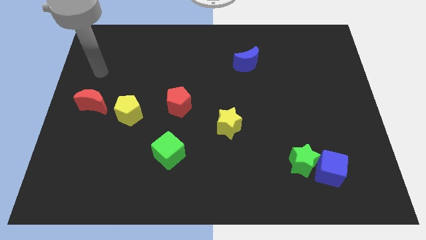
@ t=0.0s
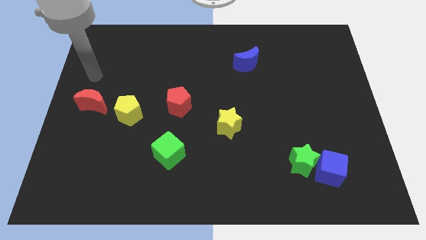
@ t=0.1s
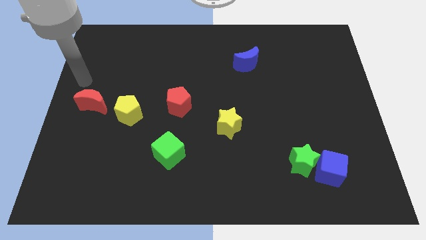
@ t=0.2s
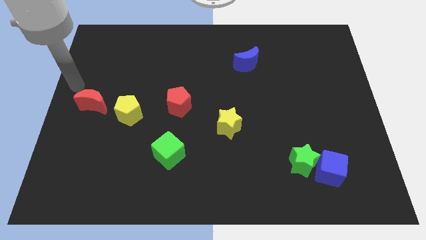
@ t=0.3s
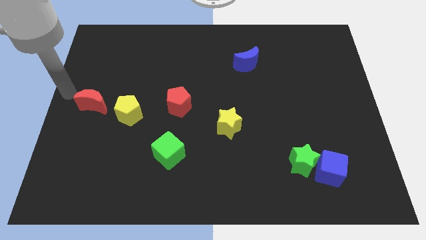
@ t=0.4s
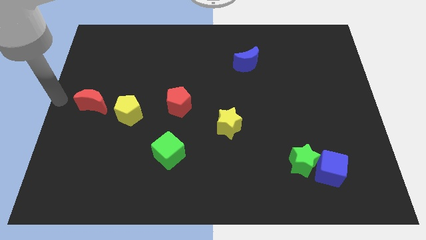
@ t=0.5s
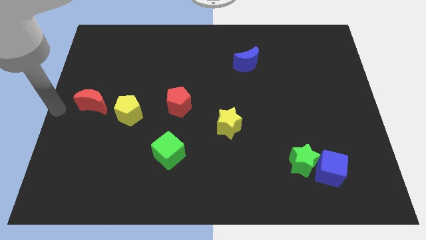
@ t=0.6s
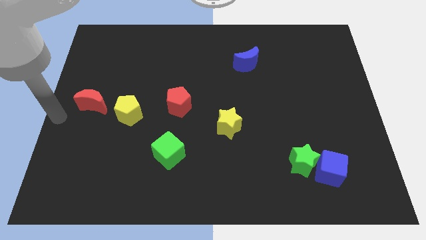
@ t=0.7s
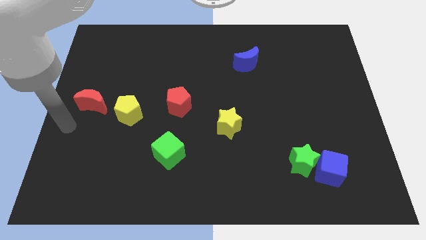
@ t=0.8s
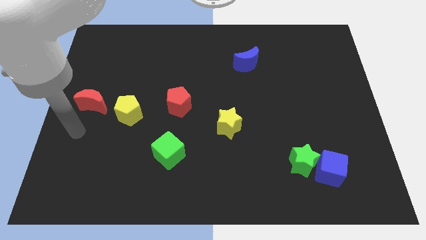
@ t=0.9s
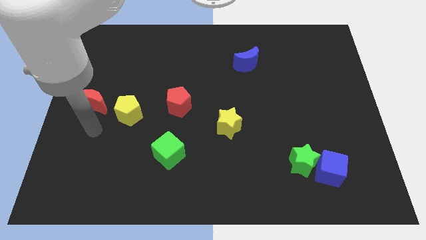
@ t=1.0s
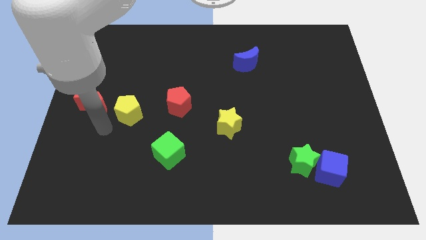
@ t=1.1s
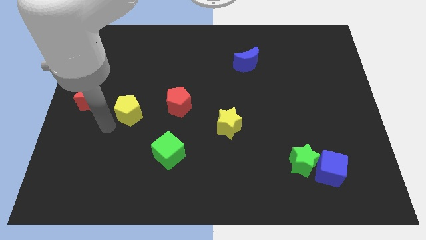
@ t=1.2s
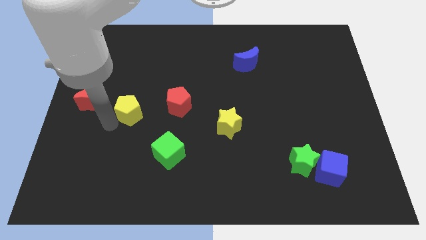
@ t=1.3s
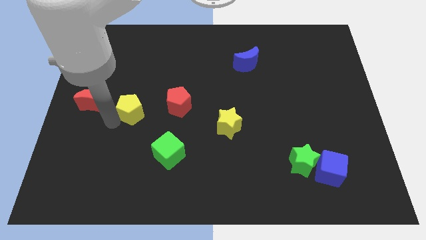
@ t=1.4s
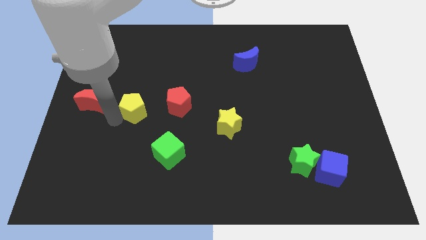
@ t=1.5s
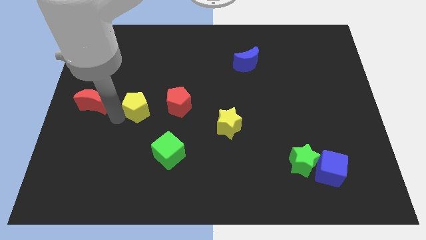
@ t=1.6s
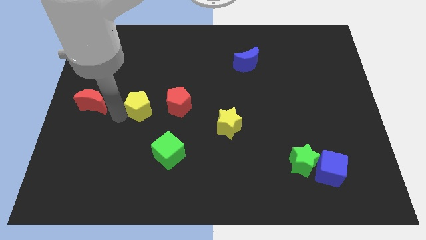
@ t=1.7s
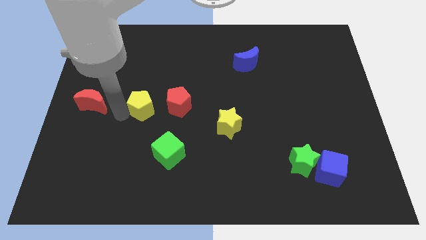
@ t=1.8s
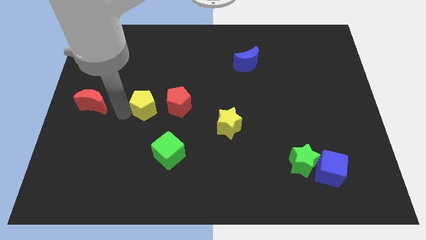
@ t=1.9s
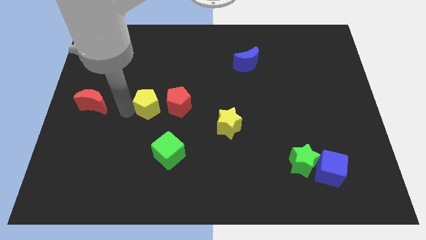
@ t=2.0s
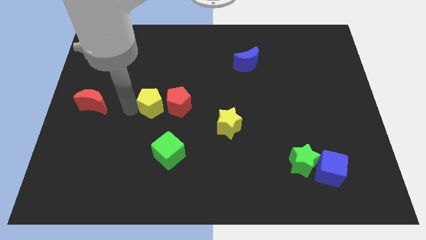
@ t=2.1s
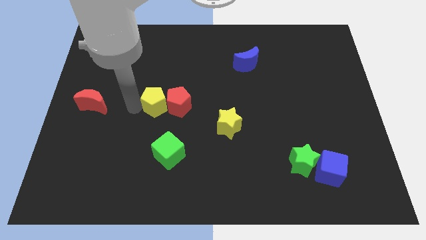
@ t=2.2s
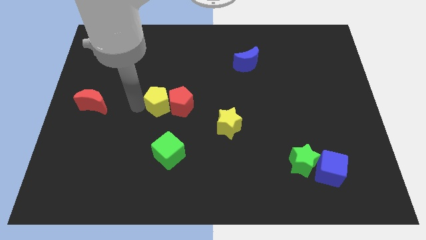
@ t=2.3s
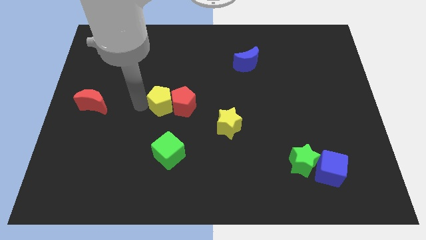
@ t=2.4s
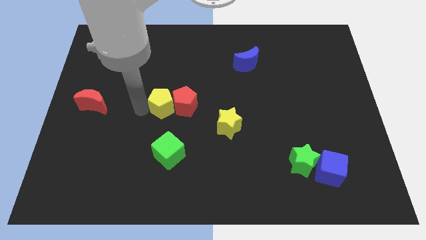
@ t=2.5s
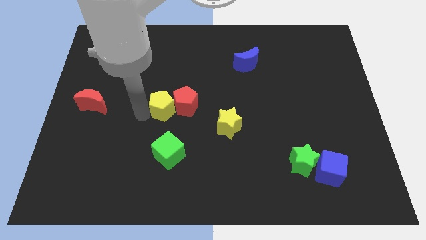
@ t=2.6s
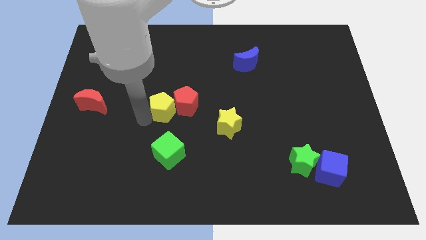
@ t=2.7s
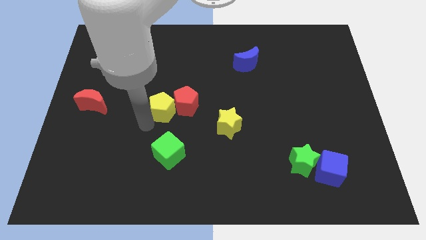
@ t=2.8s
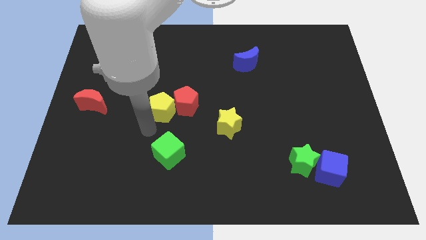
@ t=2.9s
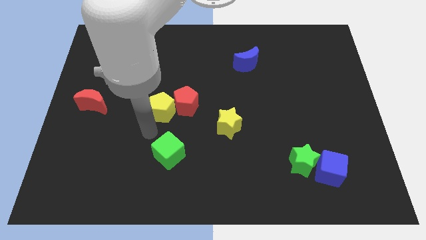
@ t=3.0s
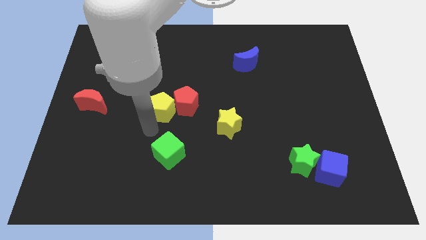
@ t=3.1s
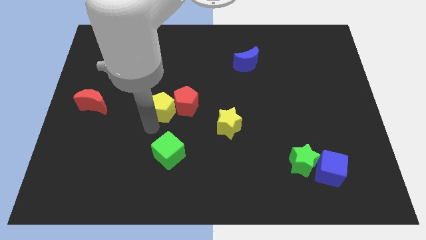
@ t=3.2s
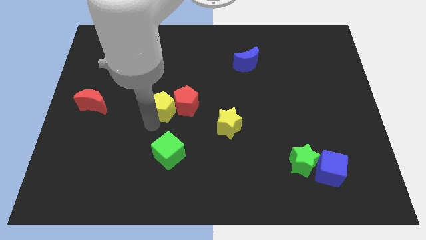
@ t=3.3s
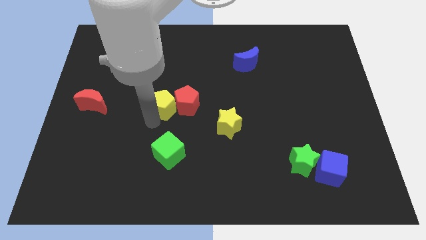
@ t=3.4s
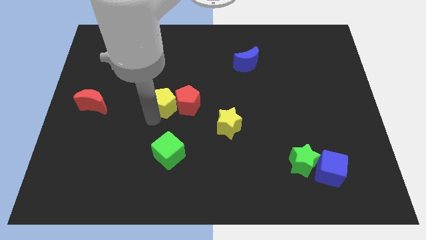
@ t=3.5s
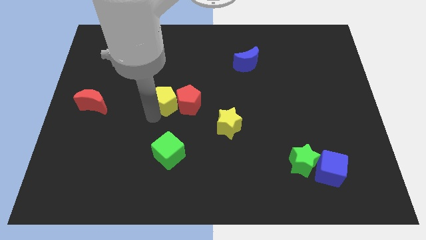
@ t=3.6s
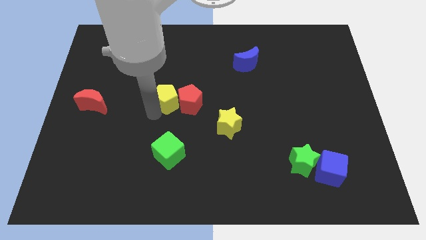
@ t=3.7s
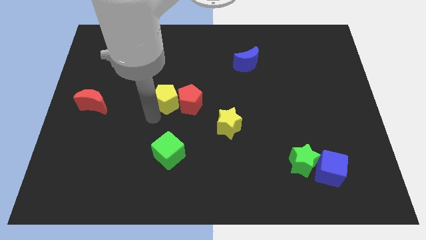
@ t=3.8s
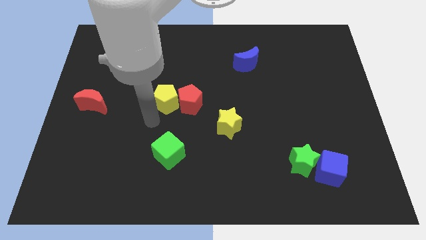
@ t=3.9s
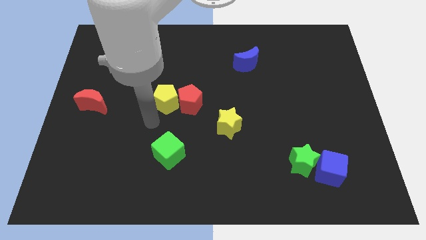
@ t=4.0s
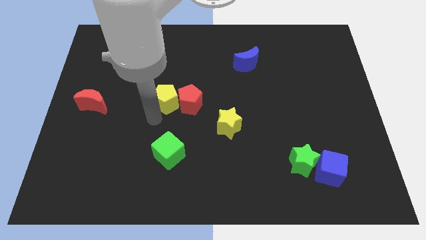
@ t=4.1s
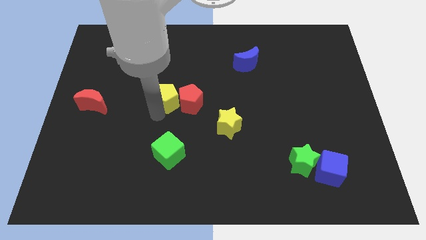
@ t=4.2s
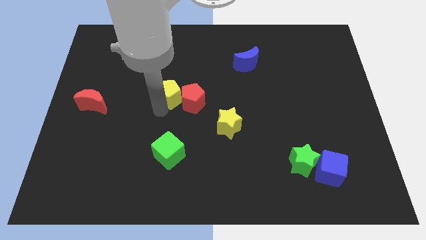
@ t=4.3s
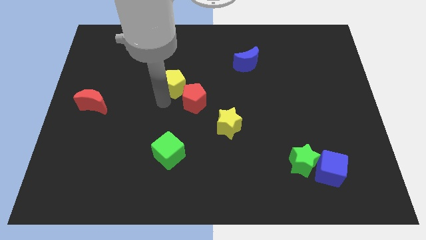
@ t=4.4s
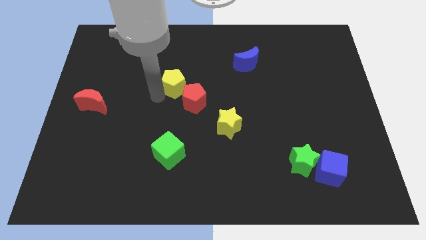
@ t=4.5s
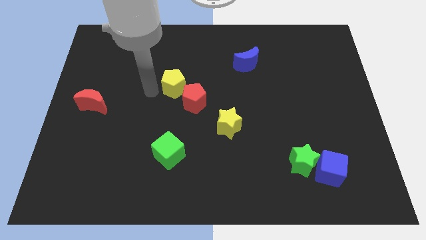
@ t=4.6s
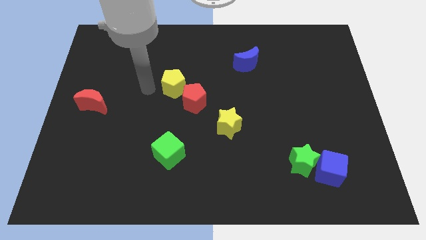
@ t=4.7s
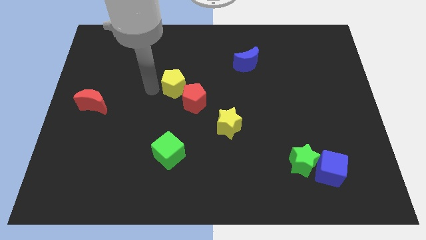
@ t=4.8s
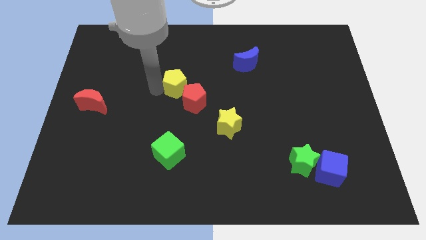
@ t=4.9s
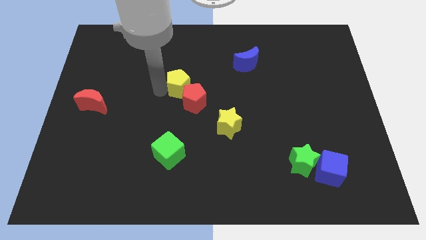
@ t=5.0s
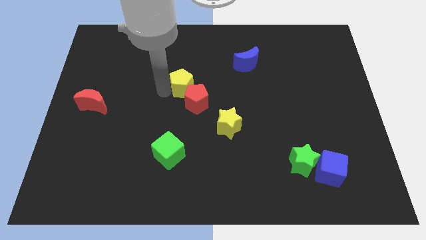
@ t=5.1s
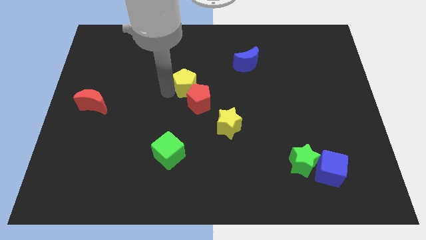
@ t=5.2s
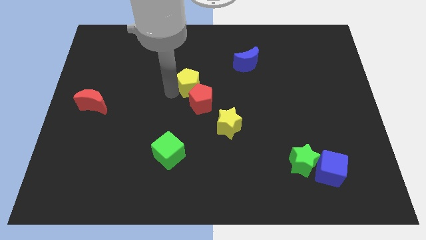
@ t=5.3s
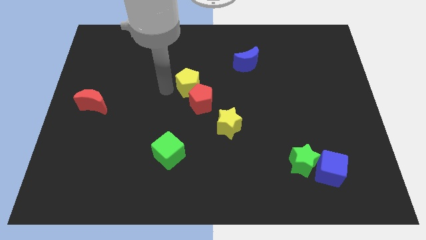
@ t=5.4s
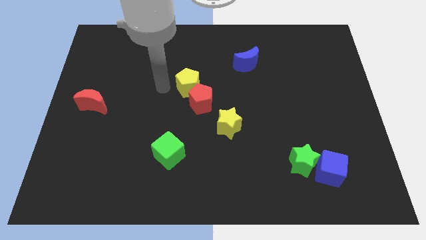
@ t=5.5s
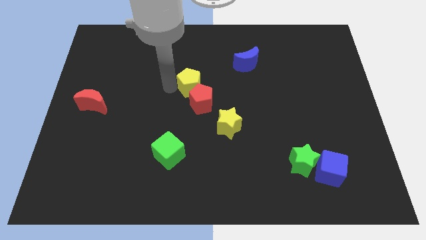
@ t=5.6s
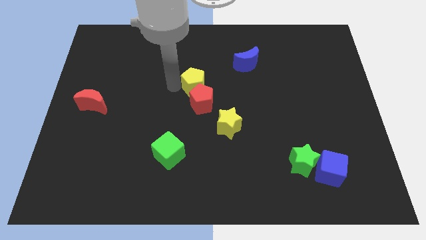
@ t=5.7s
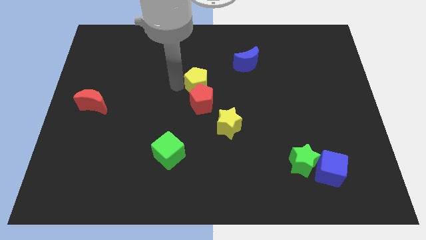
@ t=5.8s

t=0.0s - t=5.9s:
slide the yellow pentagon to the top right side of the red pentagon

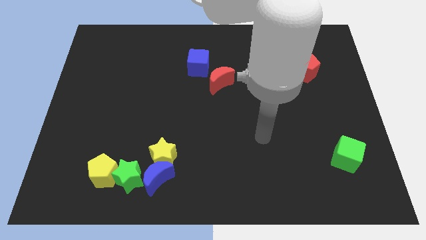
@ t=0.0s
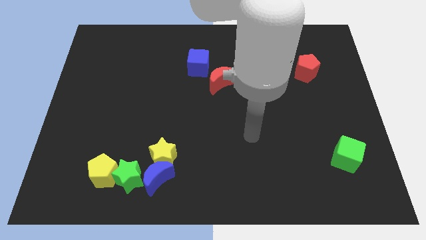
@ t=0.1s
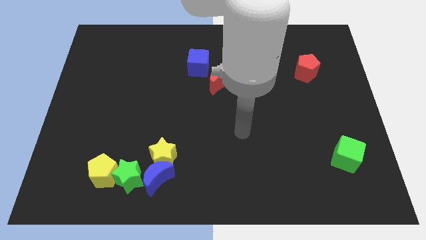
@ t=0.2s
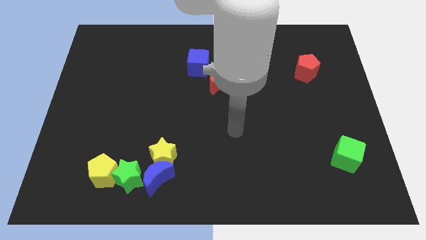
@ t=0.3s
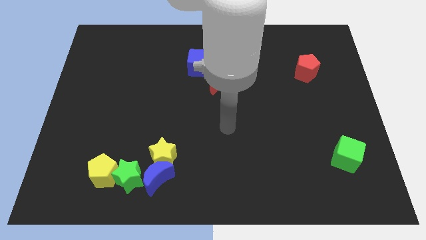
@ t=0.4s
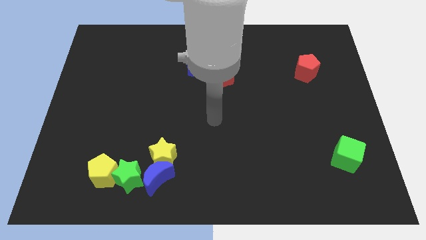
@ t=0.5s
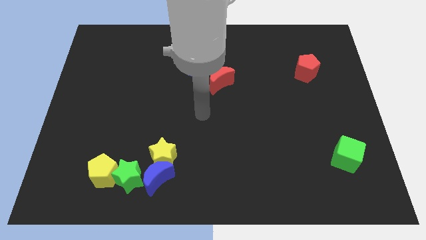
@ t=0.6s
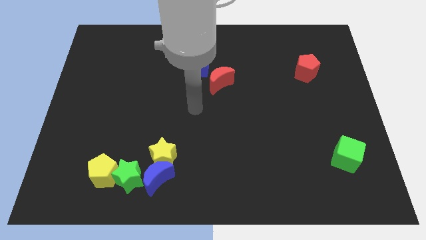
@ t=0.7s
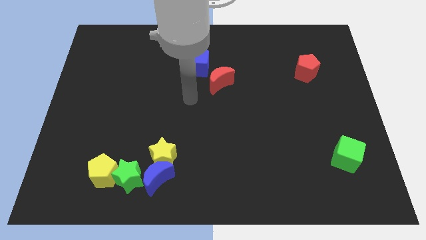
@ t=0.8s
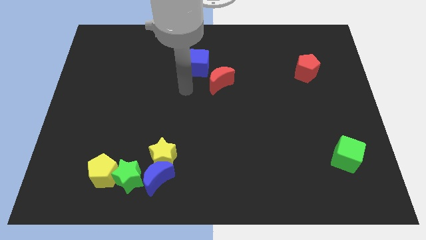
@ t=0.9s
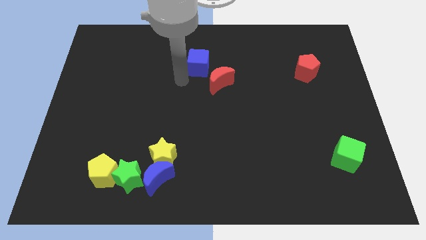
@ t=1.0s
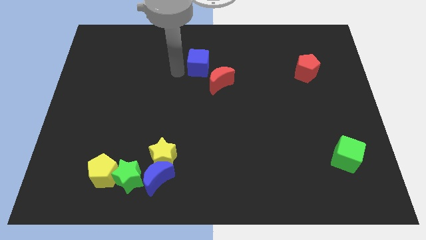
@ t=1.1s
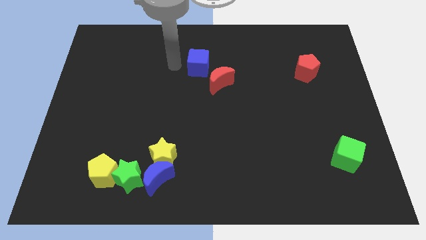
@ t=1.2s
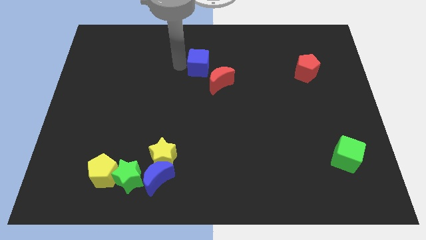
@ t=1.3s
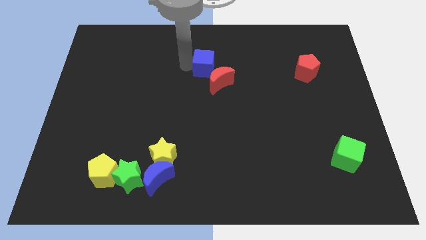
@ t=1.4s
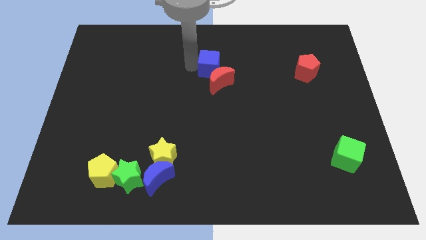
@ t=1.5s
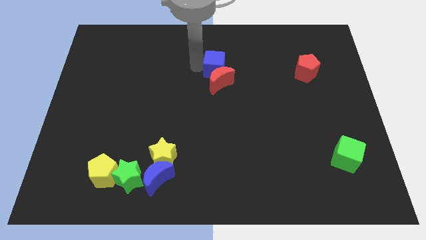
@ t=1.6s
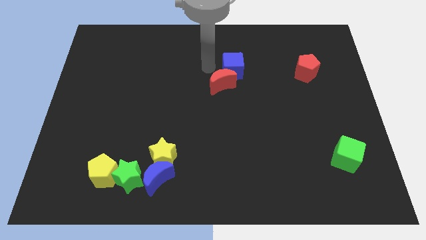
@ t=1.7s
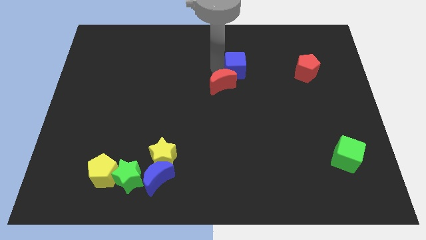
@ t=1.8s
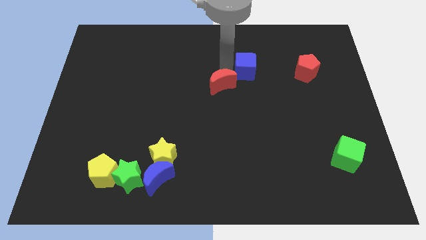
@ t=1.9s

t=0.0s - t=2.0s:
move the blue cube left of the red pentagon
